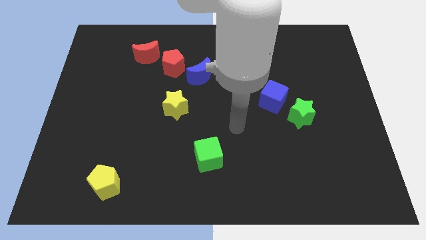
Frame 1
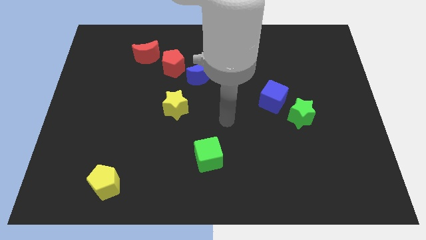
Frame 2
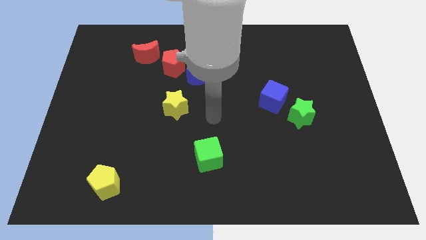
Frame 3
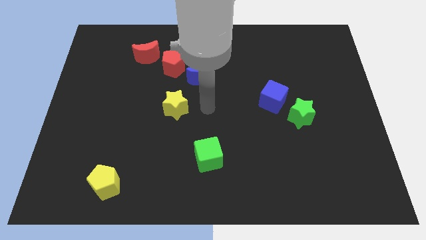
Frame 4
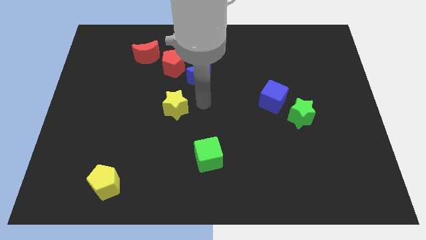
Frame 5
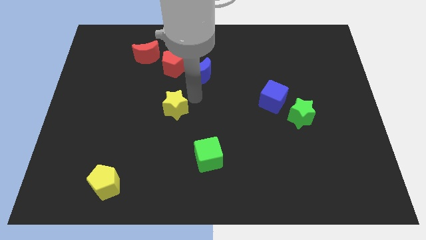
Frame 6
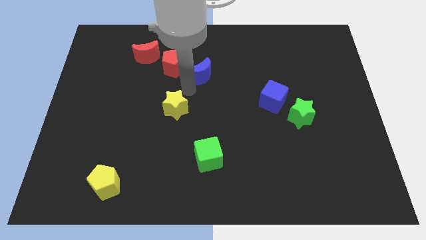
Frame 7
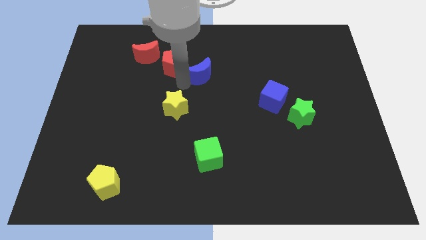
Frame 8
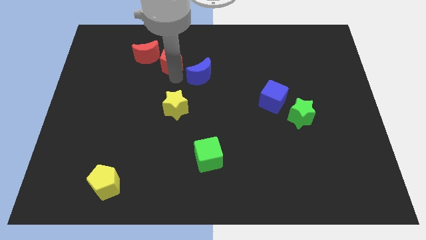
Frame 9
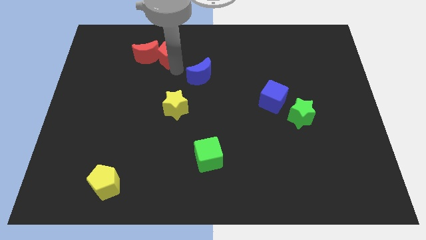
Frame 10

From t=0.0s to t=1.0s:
separate the blue moon from the red pentagon

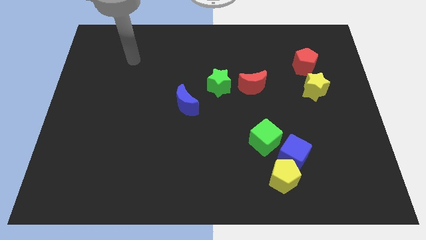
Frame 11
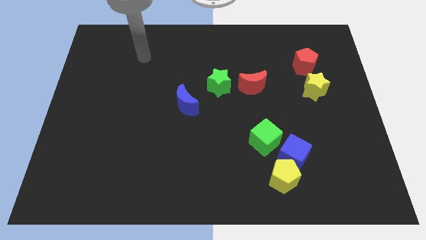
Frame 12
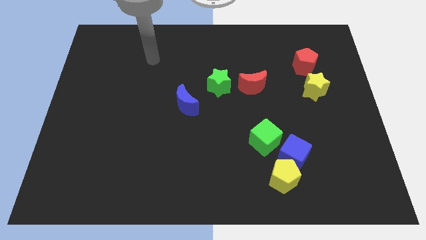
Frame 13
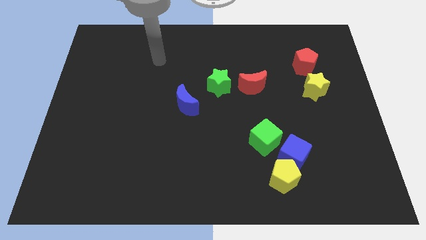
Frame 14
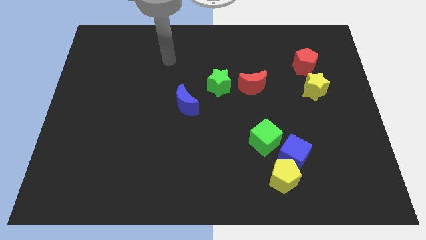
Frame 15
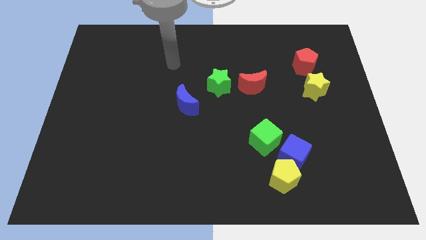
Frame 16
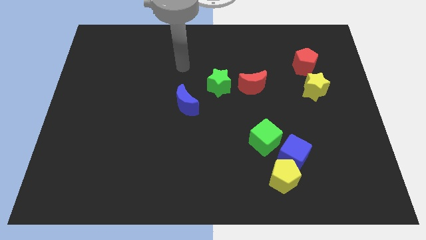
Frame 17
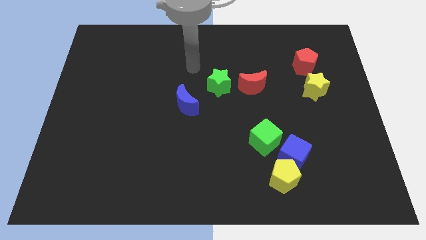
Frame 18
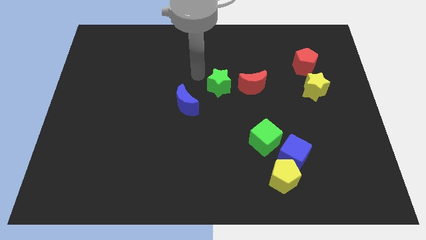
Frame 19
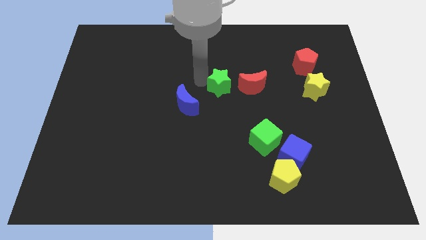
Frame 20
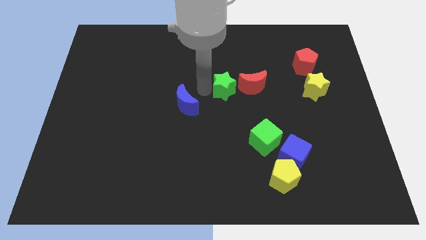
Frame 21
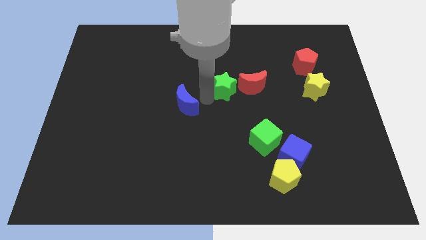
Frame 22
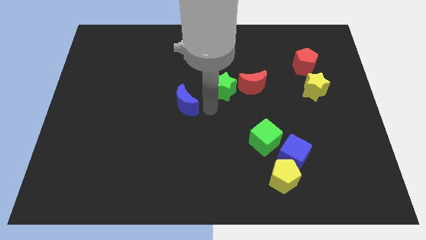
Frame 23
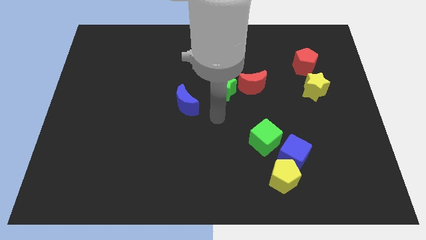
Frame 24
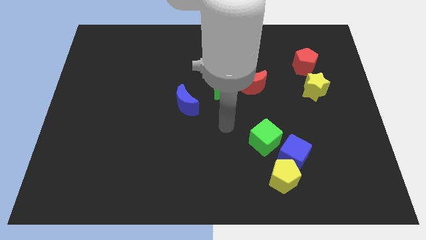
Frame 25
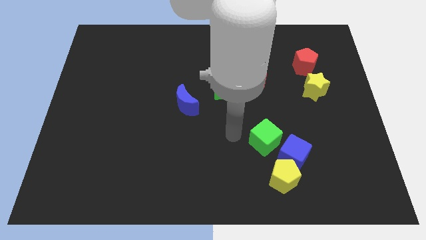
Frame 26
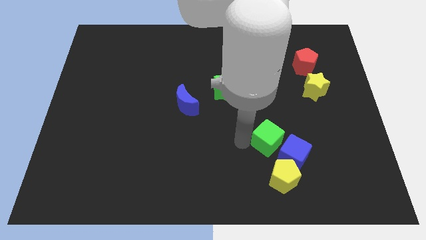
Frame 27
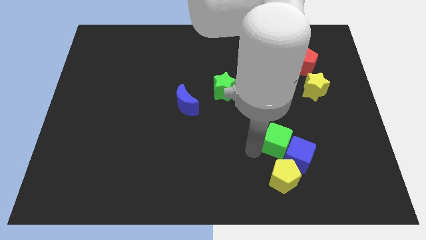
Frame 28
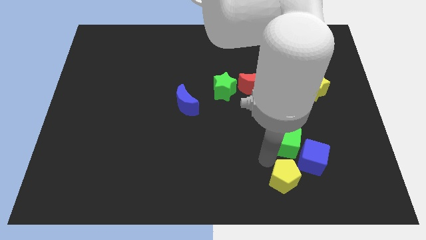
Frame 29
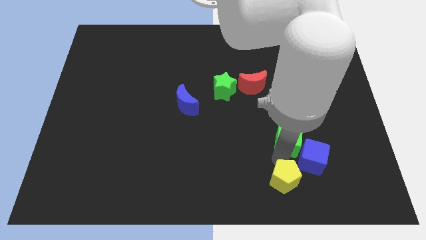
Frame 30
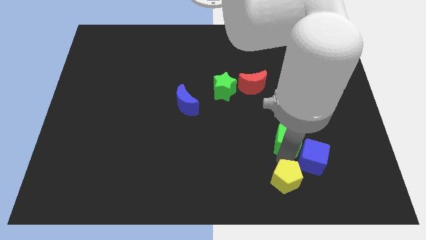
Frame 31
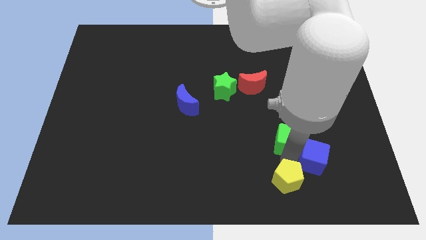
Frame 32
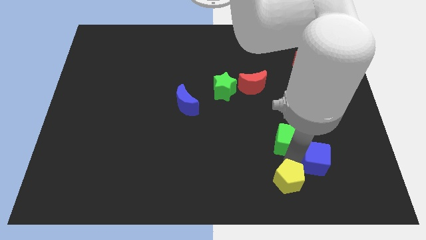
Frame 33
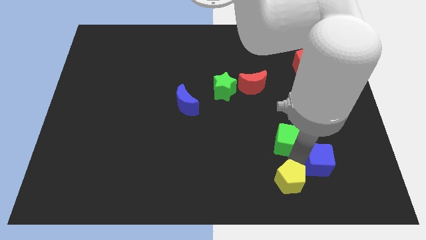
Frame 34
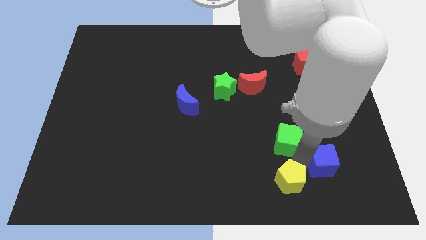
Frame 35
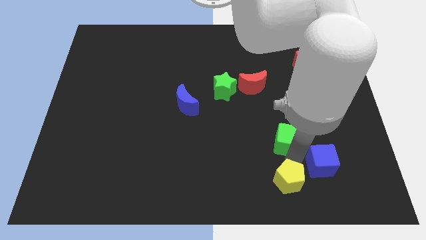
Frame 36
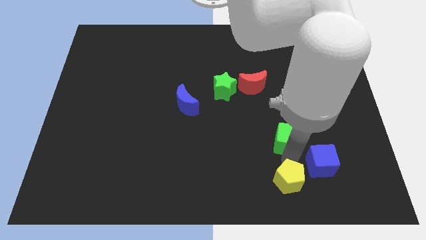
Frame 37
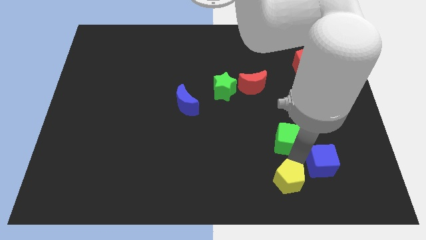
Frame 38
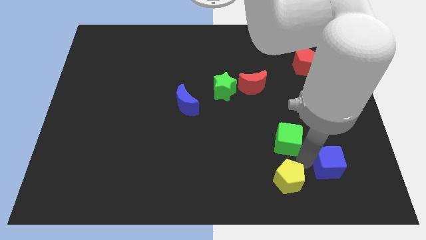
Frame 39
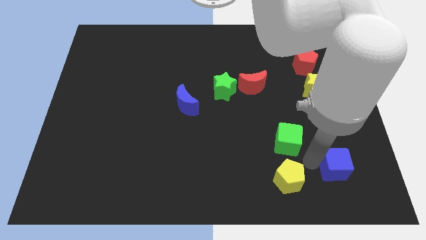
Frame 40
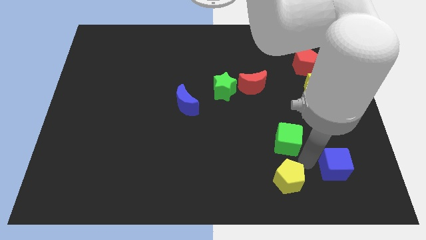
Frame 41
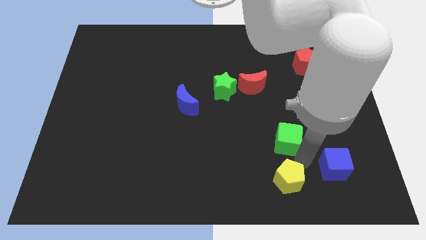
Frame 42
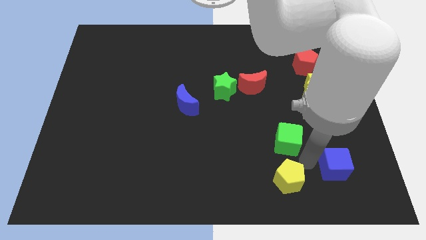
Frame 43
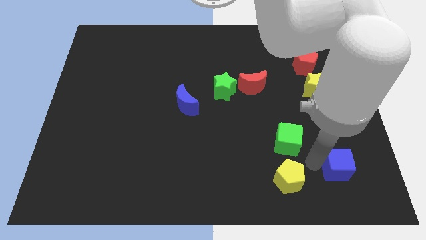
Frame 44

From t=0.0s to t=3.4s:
move the blue cube away from the yellow pentagon and green cube

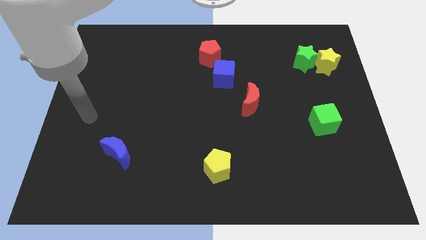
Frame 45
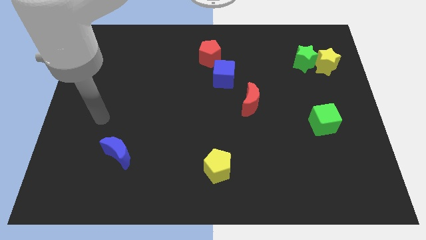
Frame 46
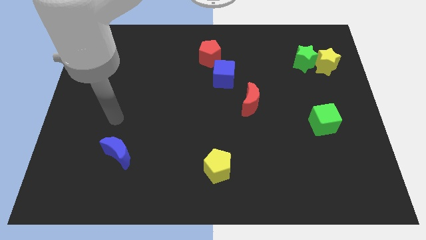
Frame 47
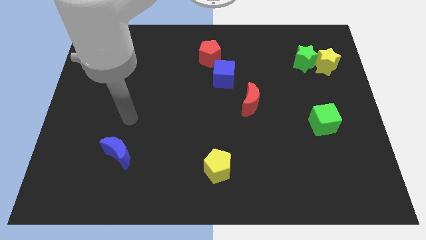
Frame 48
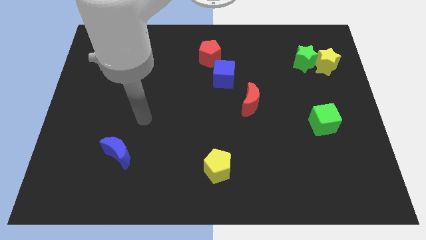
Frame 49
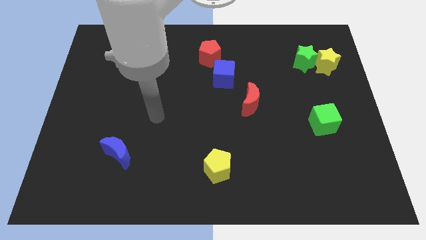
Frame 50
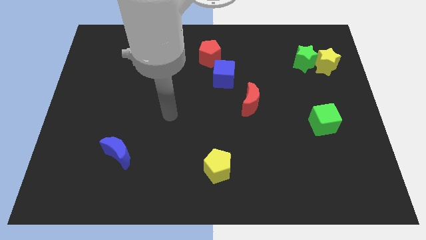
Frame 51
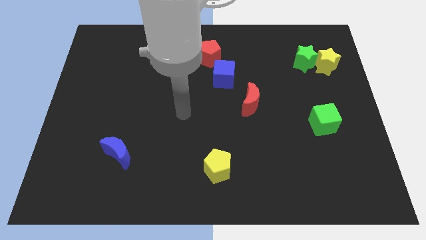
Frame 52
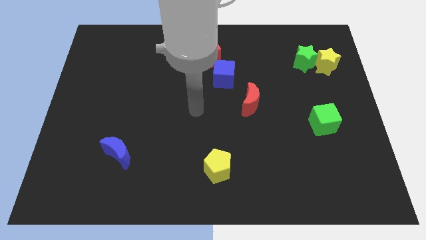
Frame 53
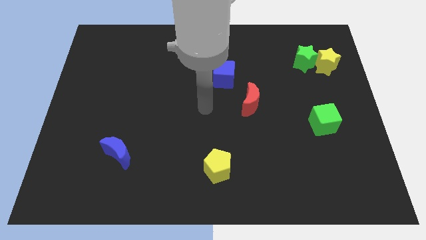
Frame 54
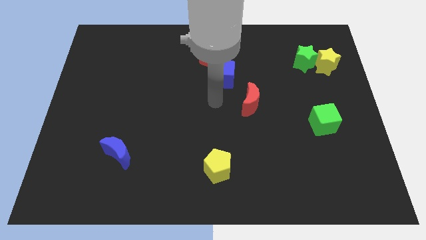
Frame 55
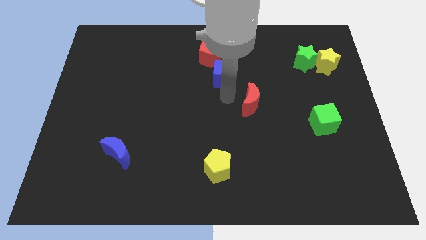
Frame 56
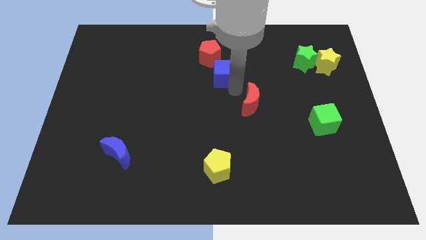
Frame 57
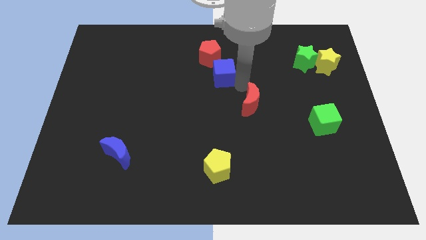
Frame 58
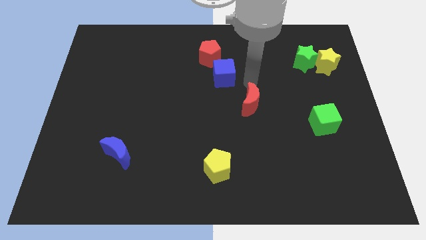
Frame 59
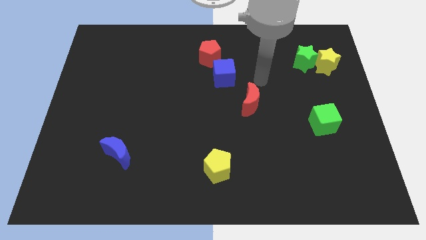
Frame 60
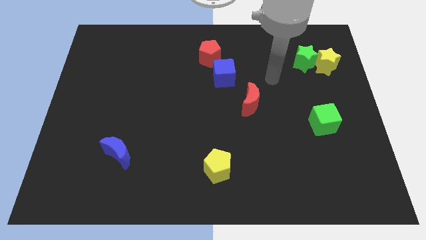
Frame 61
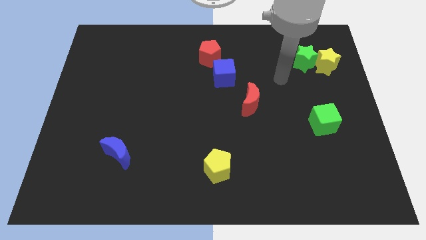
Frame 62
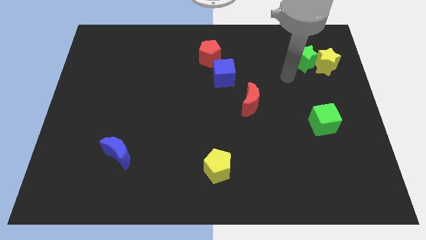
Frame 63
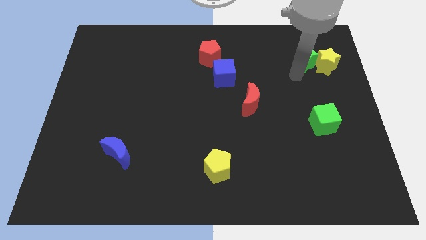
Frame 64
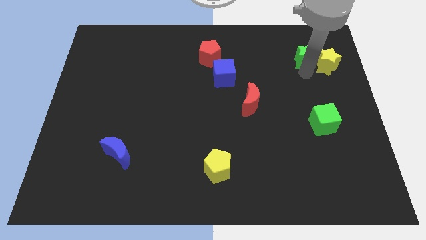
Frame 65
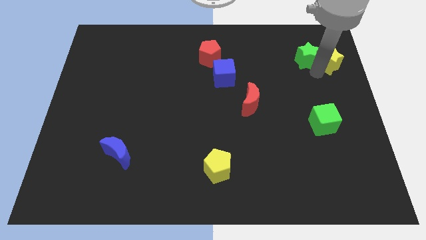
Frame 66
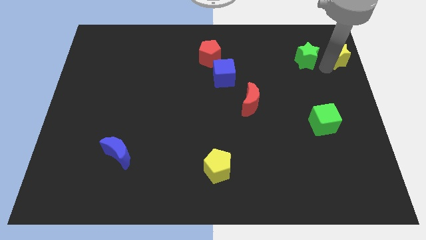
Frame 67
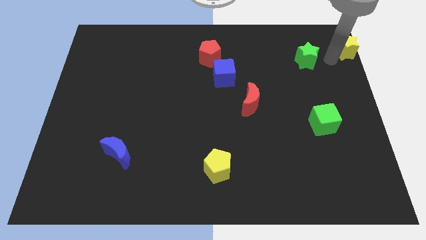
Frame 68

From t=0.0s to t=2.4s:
separate the green star from the yellow star

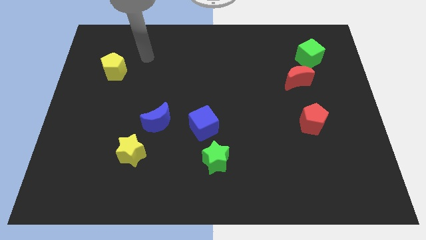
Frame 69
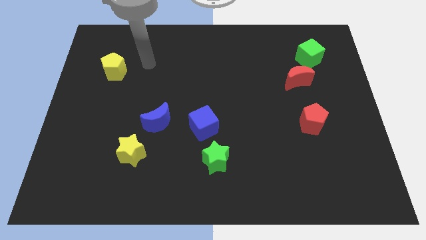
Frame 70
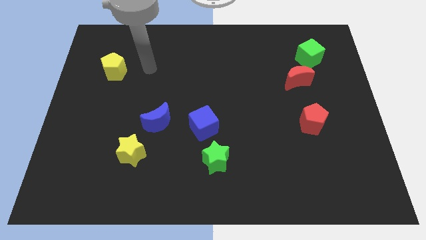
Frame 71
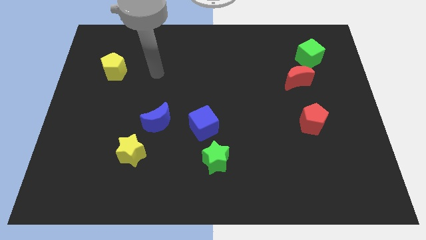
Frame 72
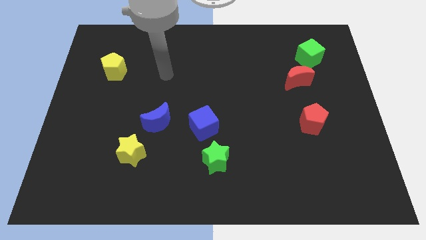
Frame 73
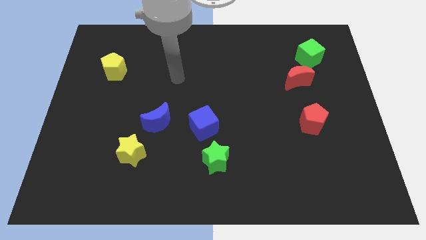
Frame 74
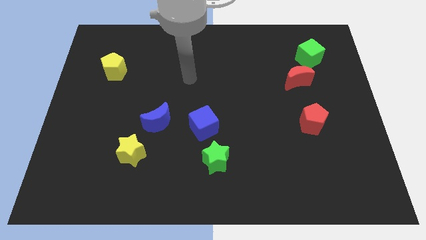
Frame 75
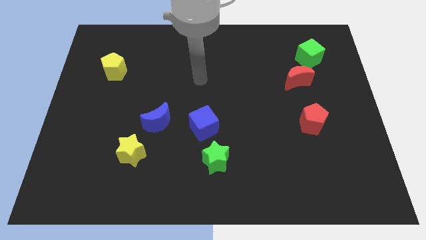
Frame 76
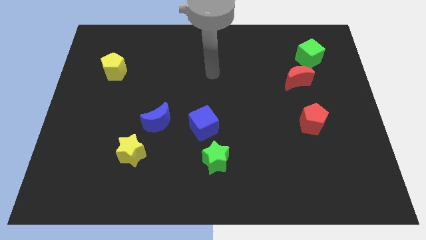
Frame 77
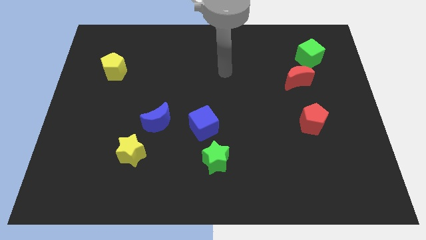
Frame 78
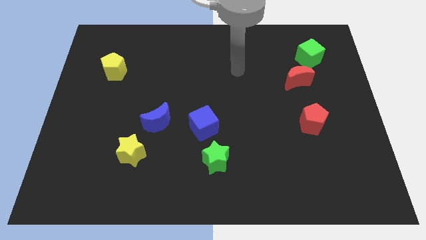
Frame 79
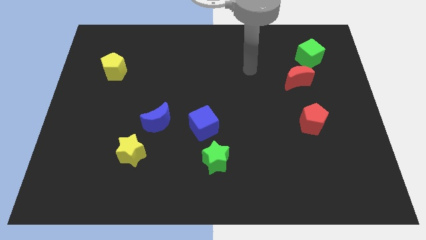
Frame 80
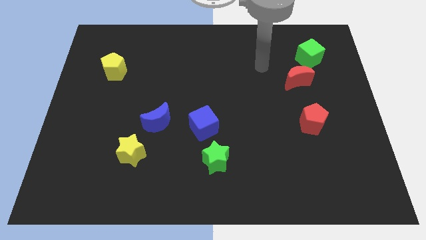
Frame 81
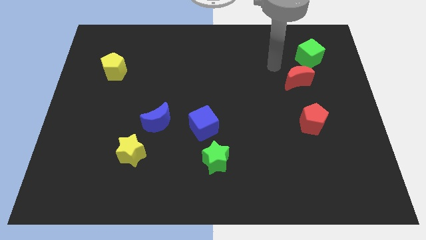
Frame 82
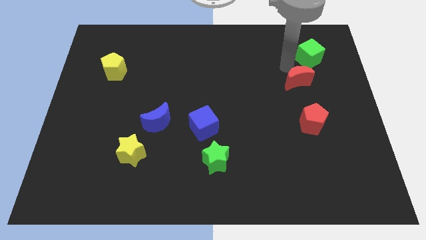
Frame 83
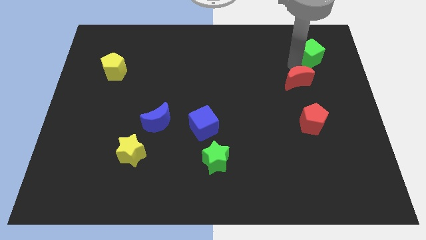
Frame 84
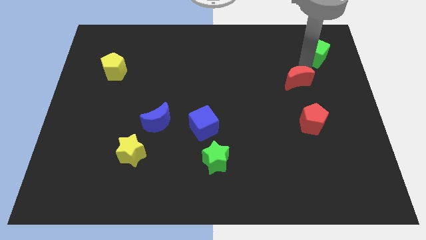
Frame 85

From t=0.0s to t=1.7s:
move the red moon away from the green cube

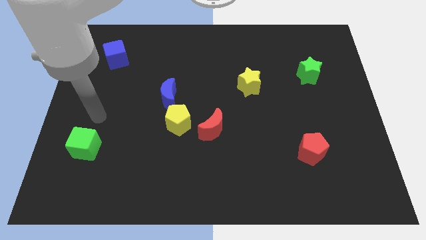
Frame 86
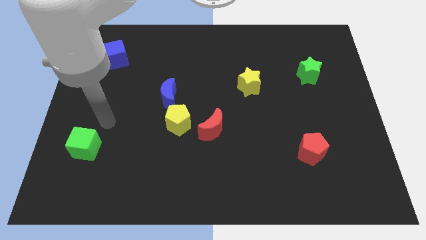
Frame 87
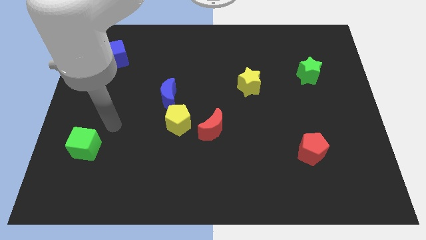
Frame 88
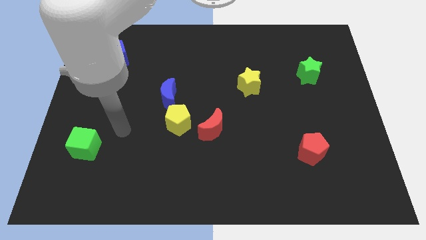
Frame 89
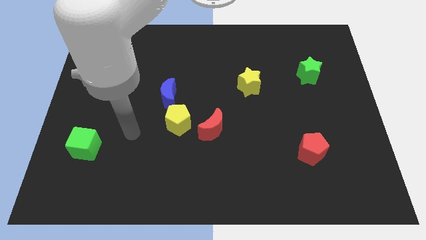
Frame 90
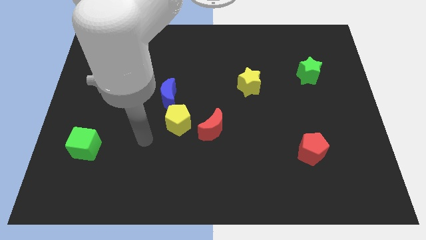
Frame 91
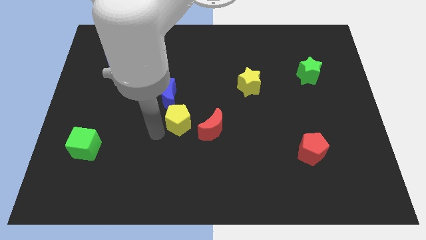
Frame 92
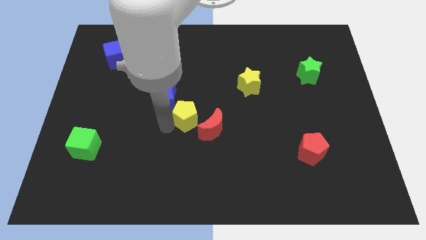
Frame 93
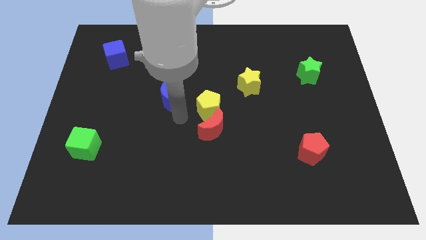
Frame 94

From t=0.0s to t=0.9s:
separate the blue moon from the yellow pentagon
